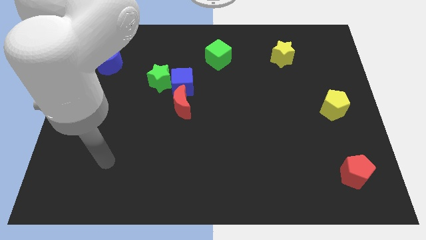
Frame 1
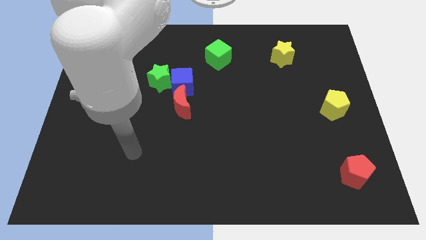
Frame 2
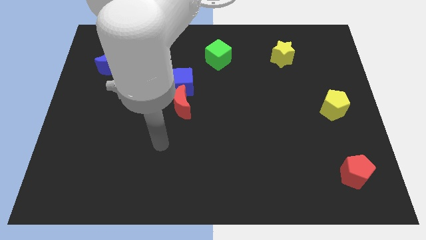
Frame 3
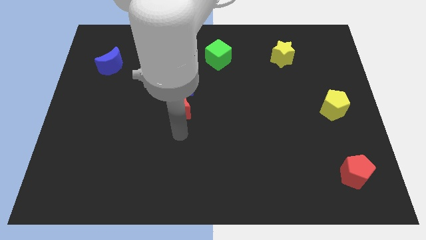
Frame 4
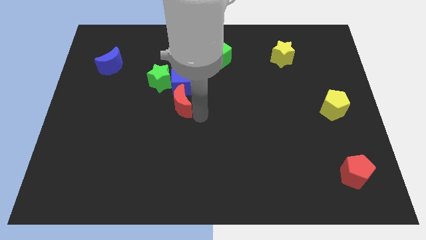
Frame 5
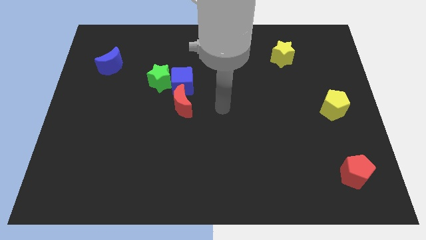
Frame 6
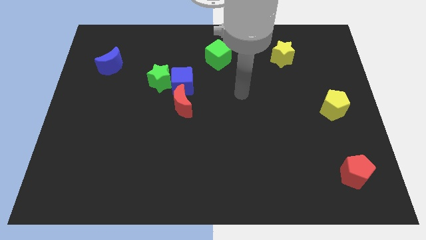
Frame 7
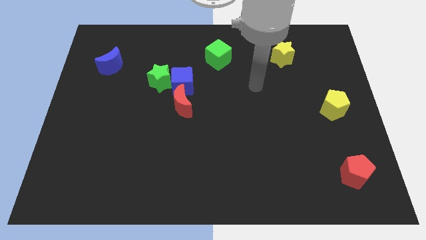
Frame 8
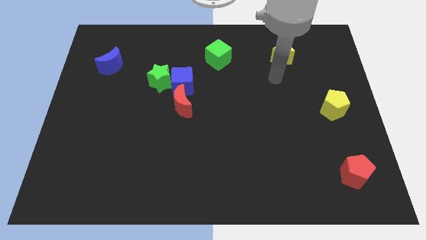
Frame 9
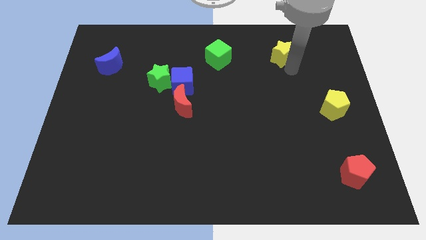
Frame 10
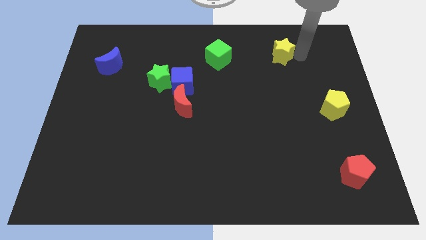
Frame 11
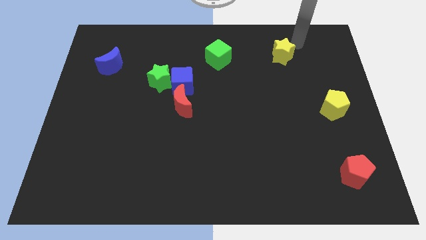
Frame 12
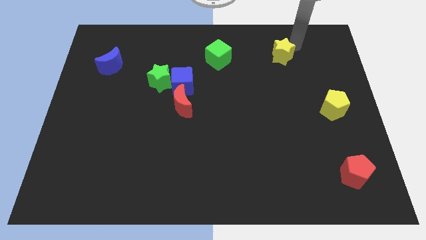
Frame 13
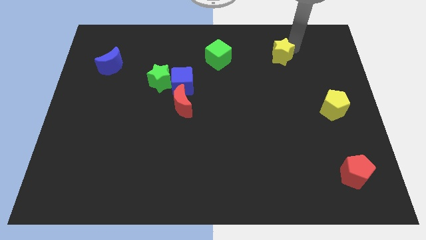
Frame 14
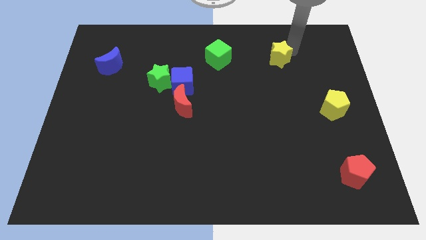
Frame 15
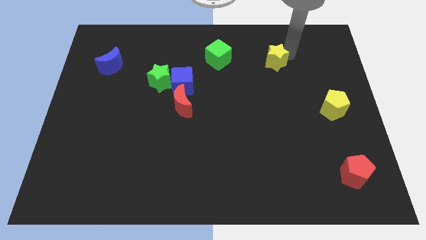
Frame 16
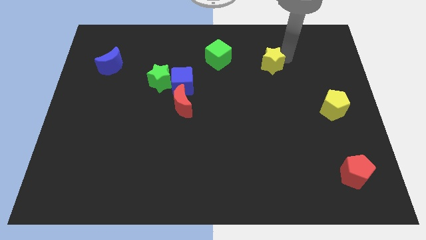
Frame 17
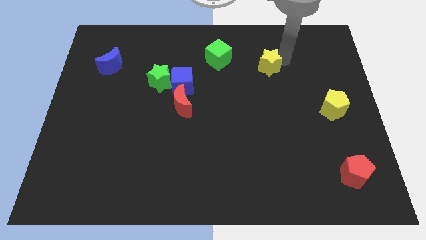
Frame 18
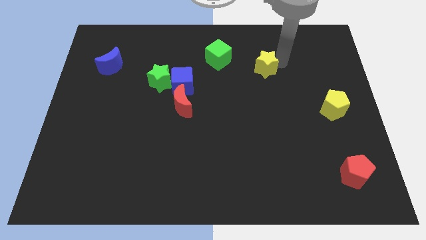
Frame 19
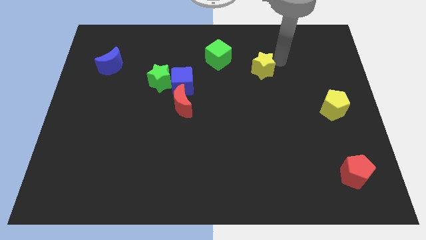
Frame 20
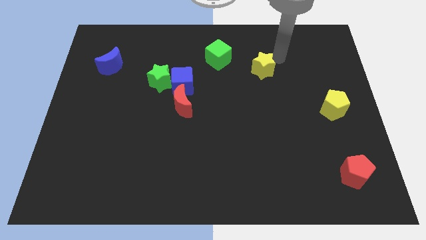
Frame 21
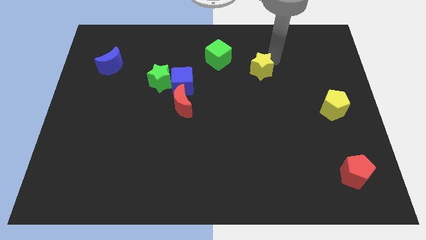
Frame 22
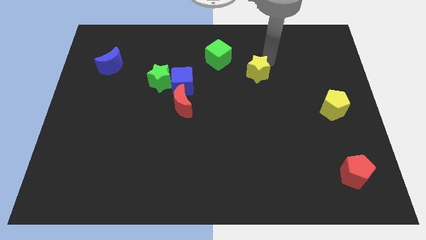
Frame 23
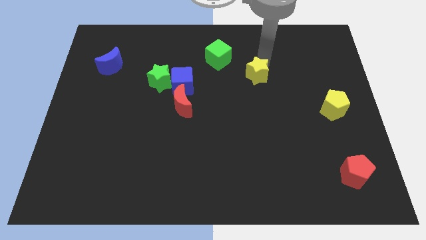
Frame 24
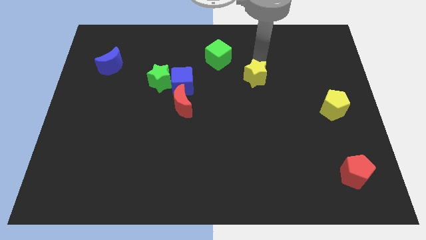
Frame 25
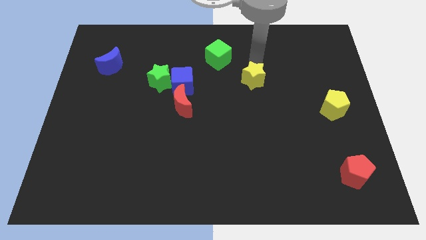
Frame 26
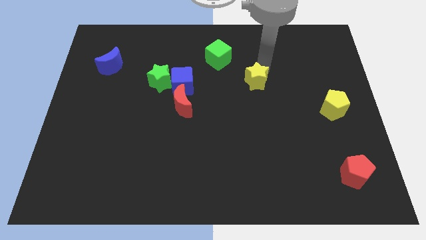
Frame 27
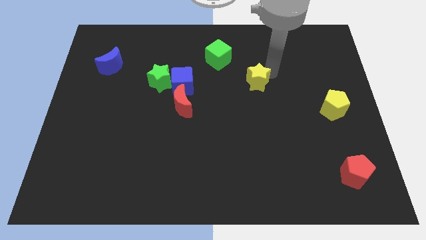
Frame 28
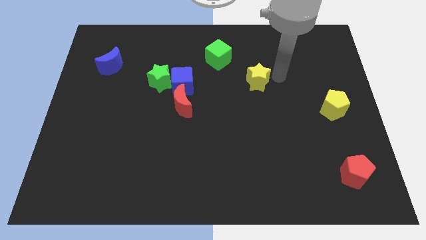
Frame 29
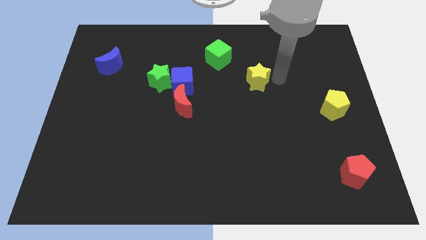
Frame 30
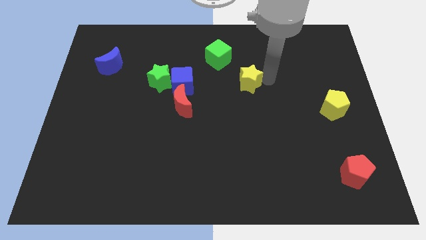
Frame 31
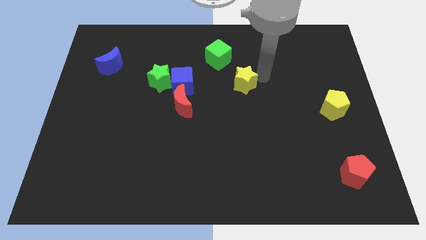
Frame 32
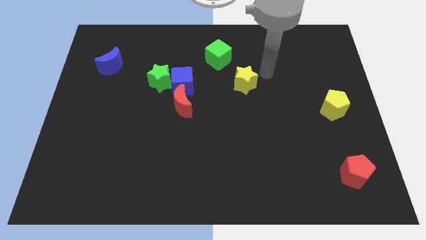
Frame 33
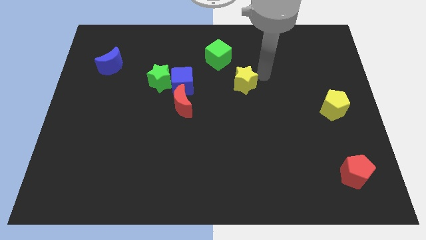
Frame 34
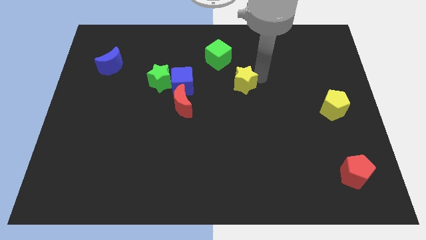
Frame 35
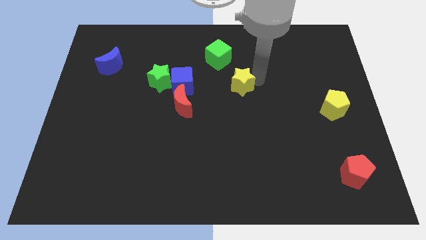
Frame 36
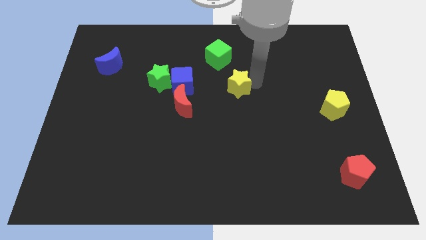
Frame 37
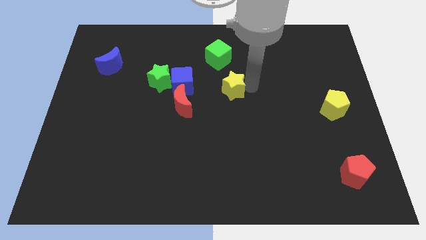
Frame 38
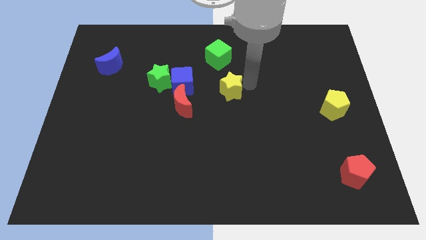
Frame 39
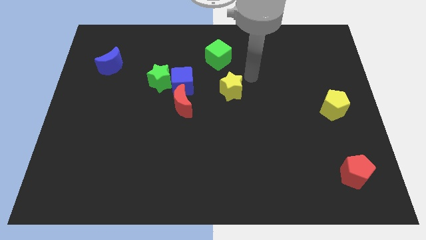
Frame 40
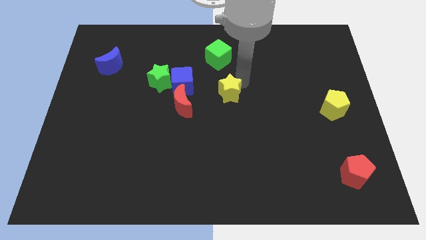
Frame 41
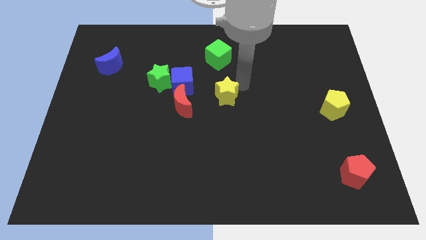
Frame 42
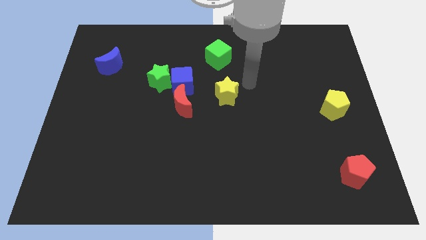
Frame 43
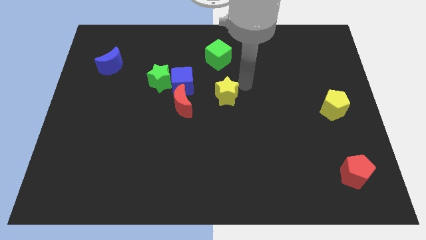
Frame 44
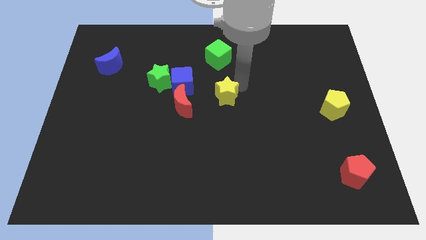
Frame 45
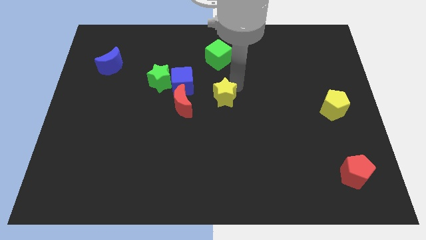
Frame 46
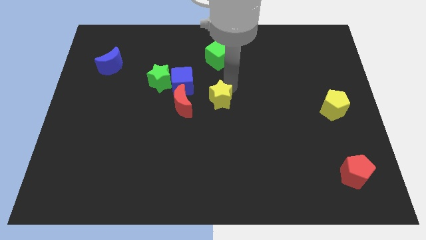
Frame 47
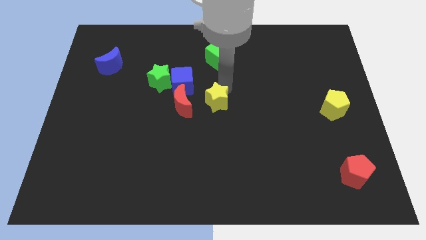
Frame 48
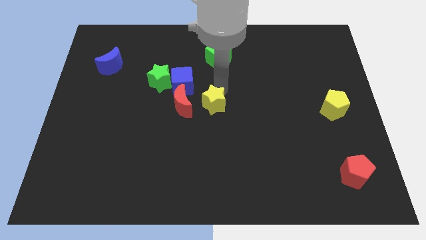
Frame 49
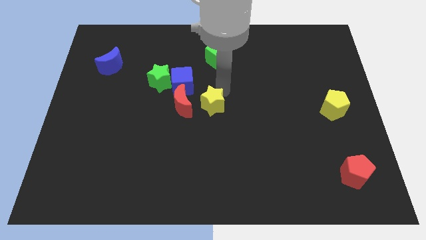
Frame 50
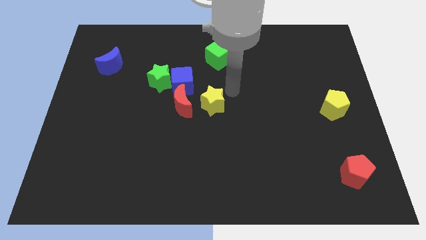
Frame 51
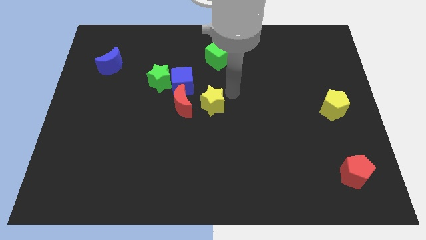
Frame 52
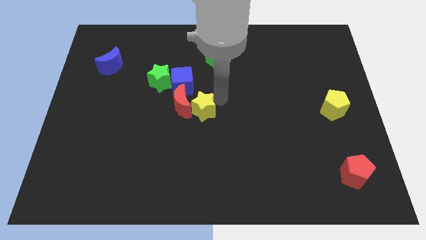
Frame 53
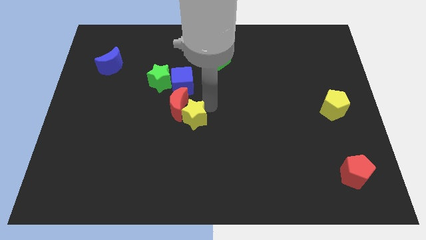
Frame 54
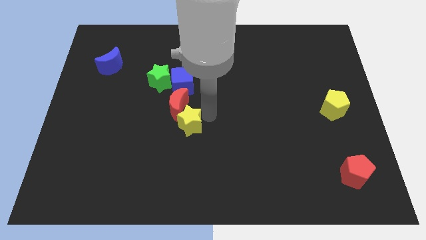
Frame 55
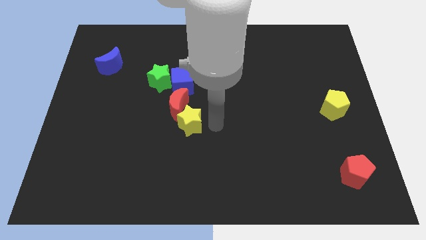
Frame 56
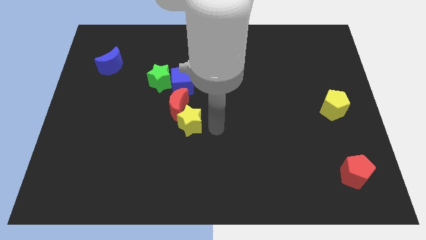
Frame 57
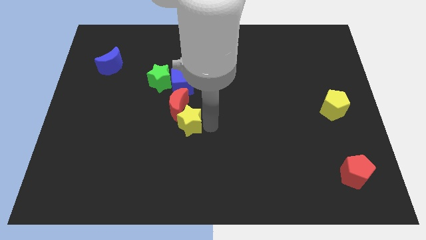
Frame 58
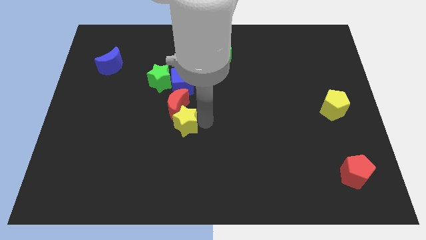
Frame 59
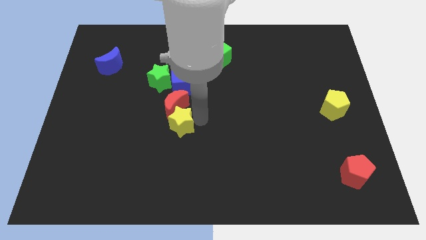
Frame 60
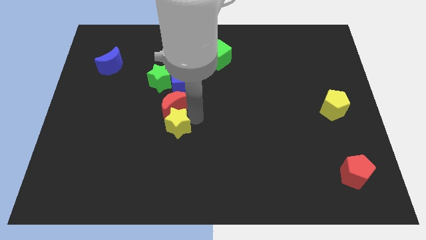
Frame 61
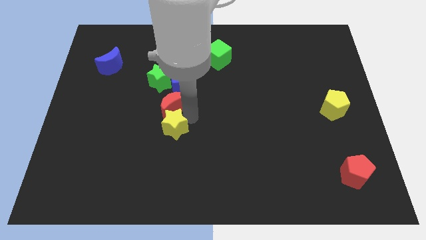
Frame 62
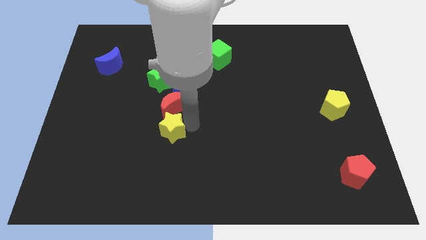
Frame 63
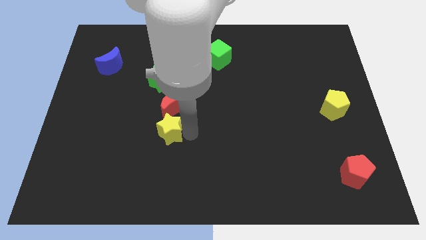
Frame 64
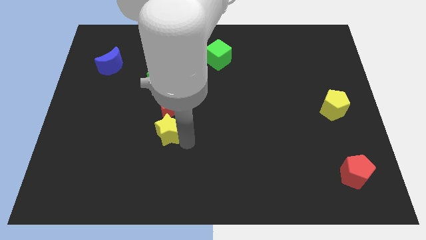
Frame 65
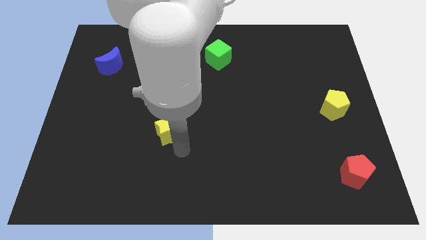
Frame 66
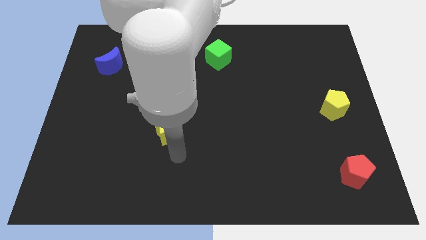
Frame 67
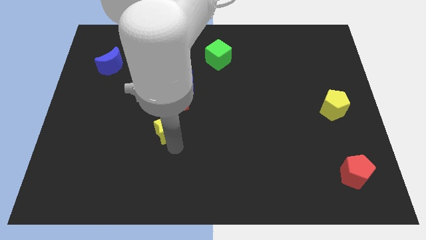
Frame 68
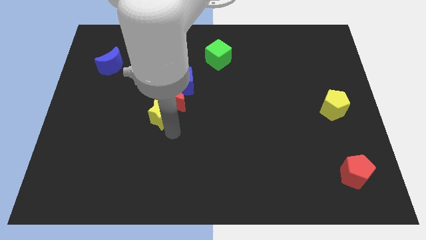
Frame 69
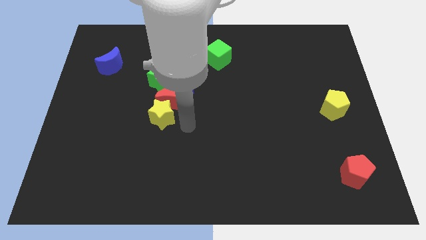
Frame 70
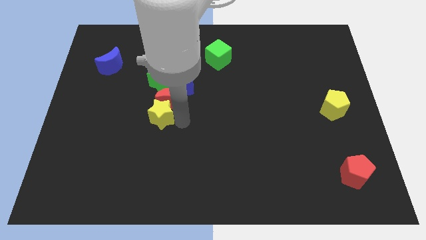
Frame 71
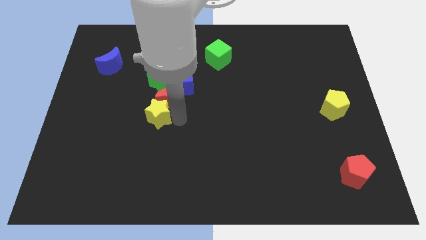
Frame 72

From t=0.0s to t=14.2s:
slide the yellow star to the left side of the red moon
